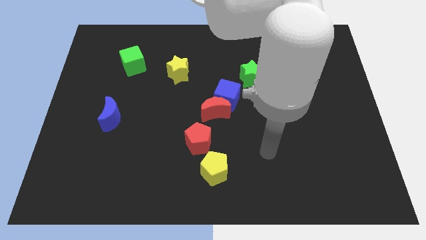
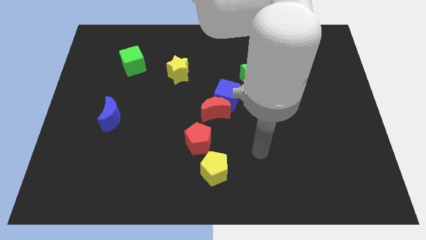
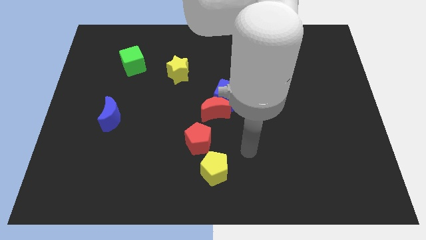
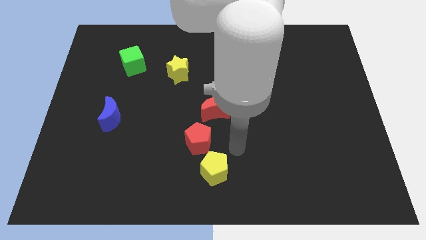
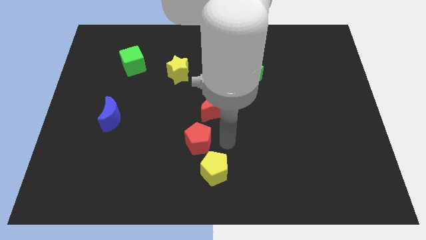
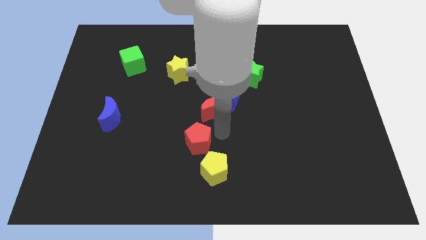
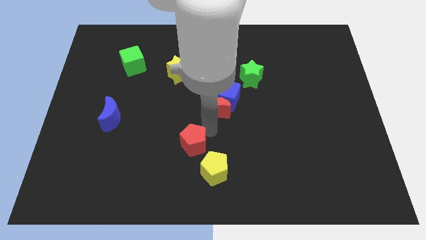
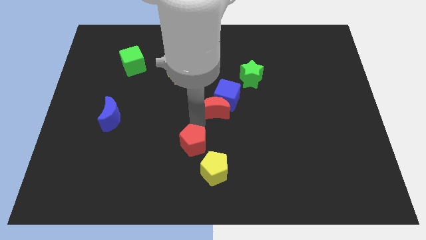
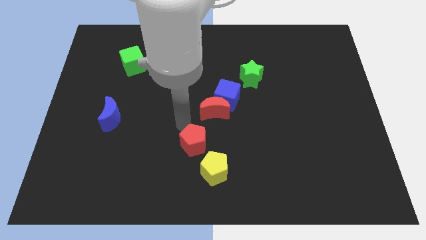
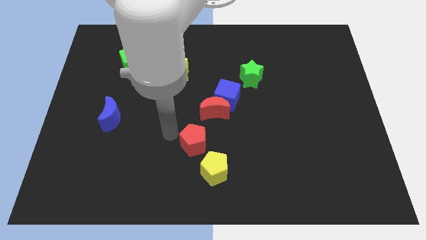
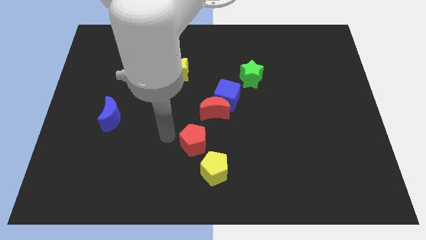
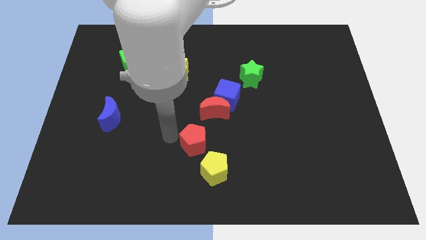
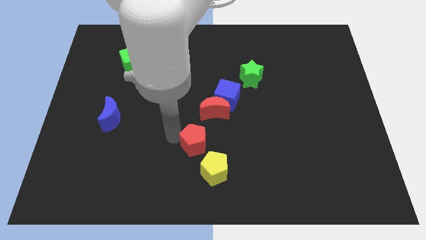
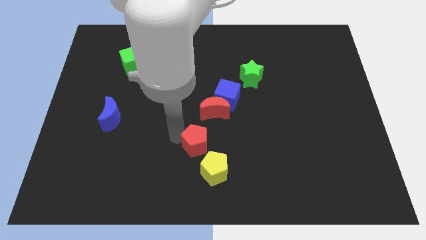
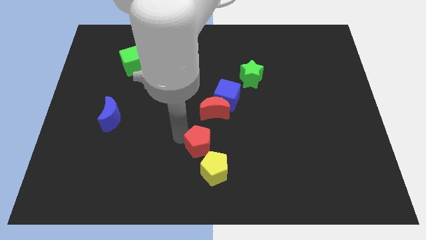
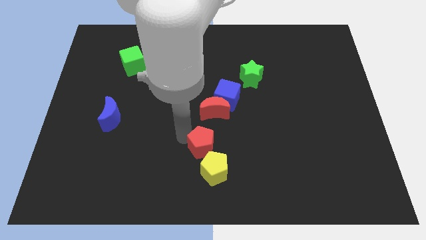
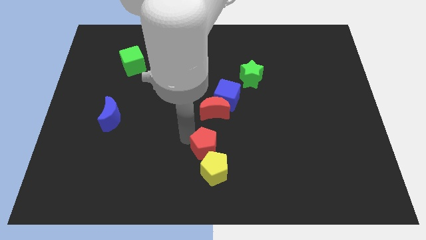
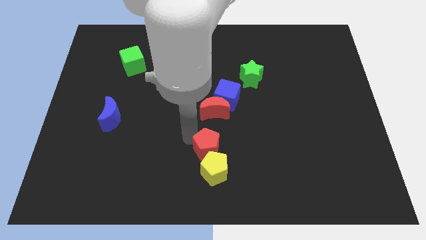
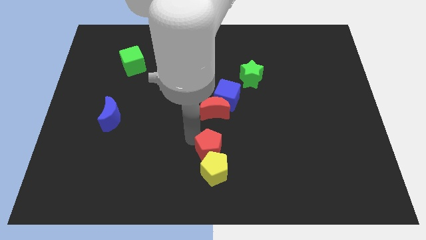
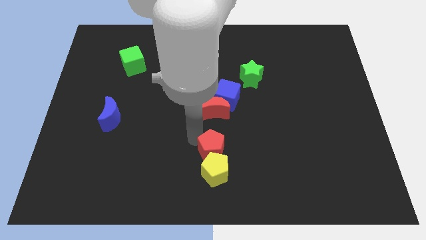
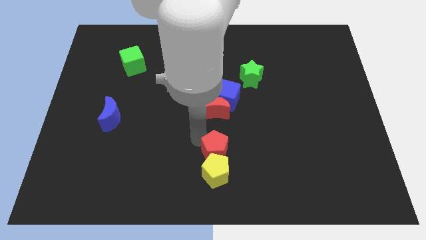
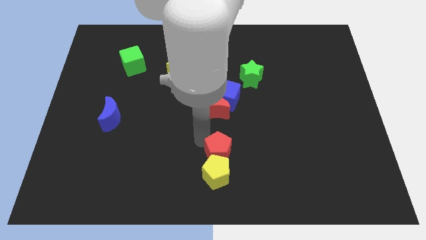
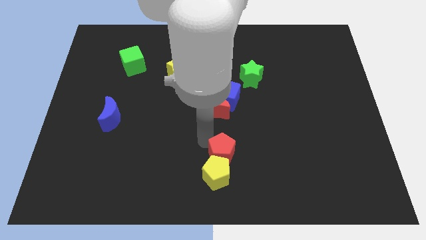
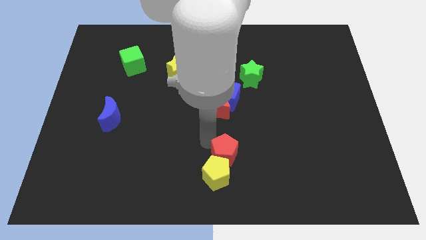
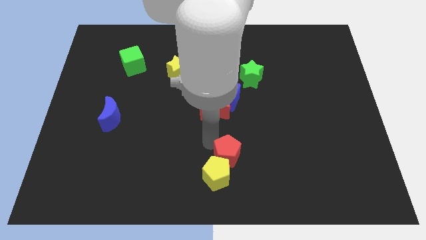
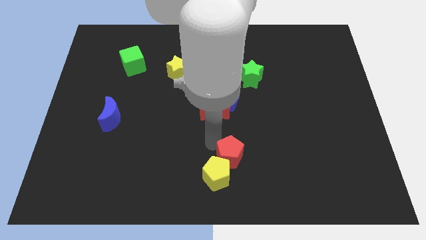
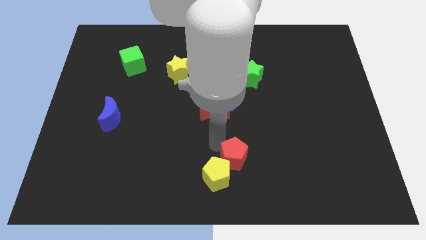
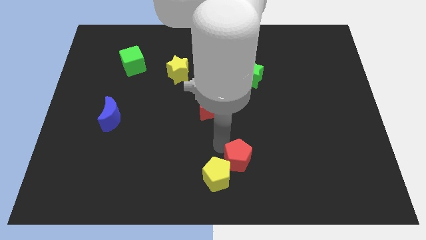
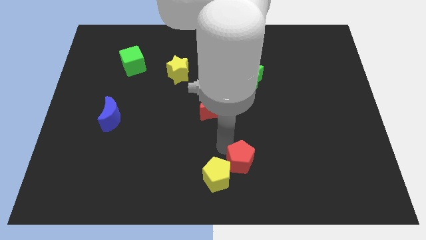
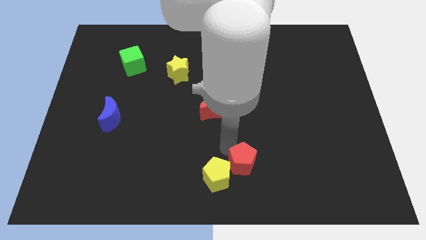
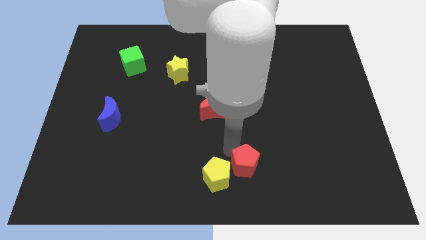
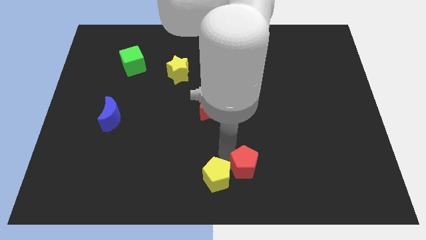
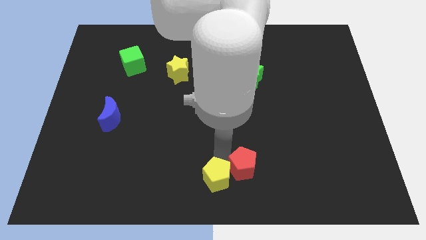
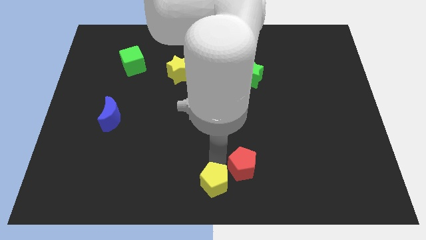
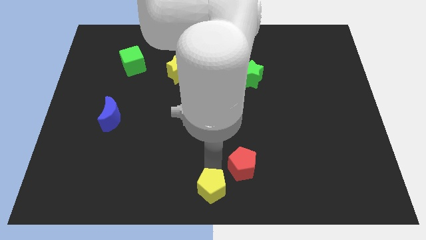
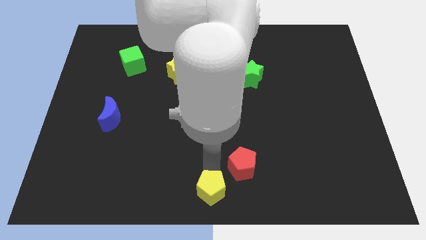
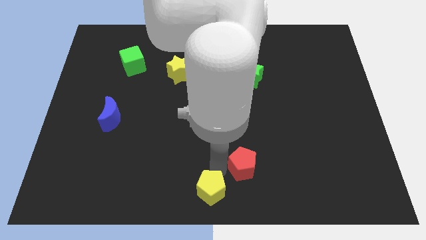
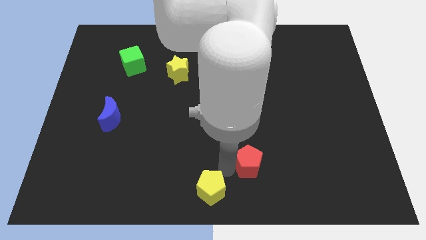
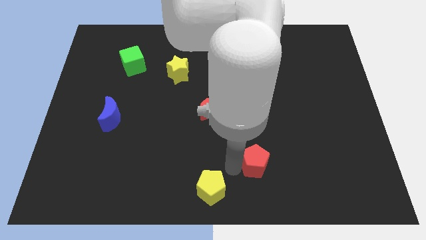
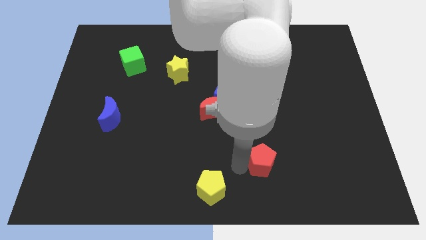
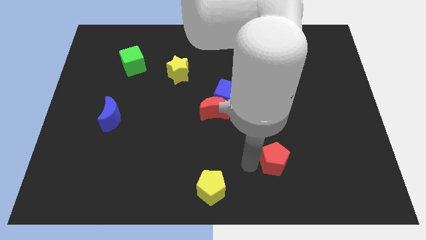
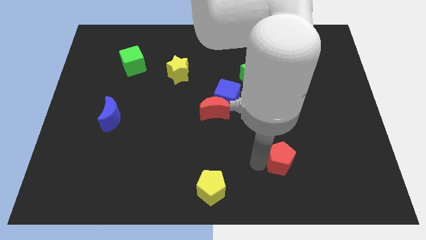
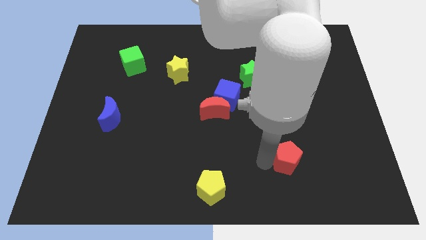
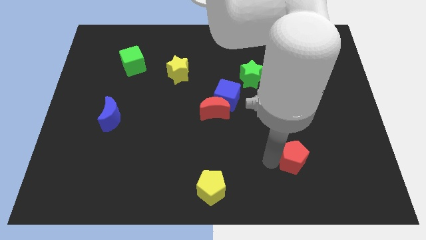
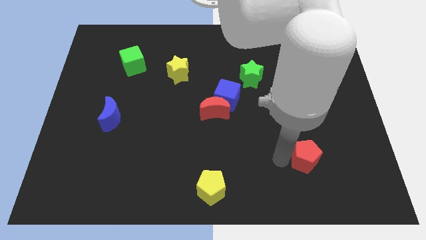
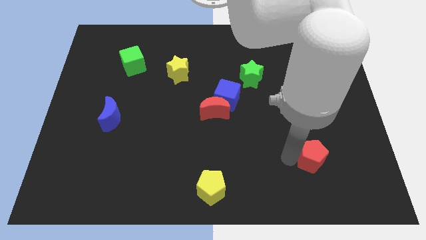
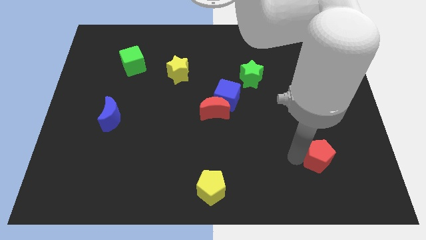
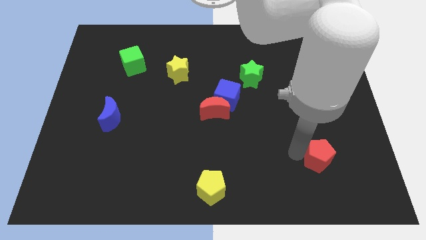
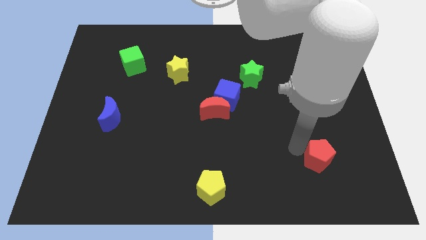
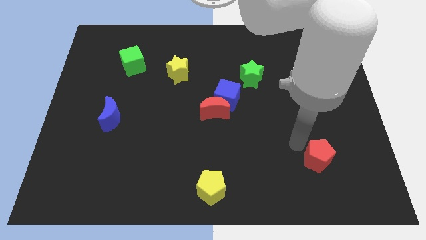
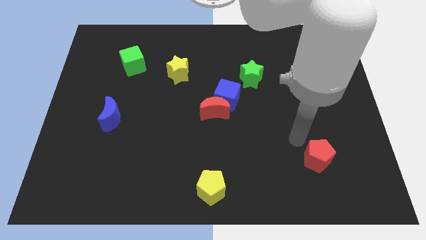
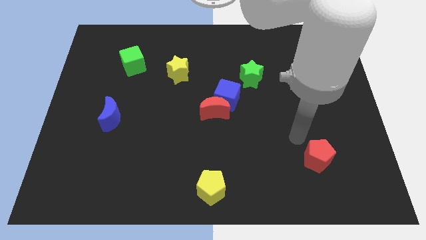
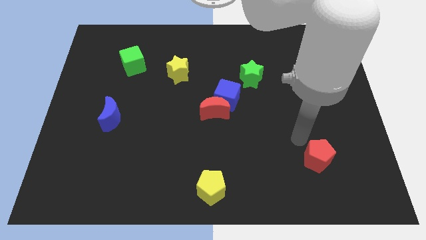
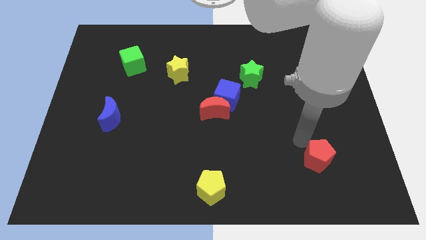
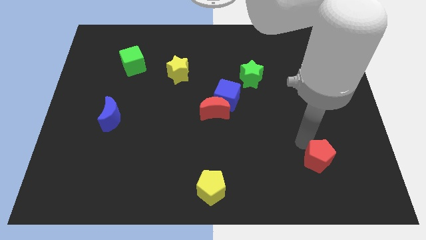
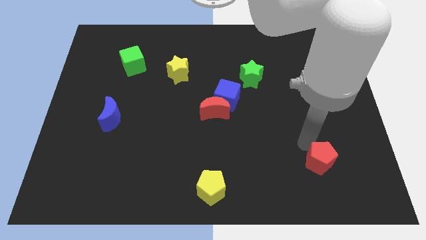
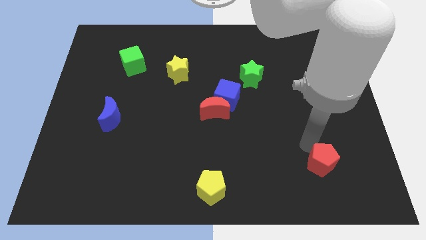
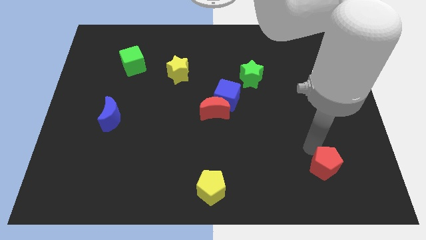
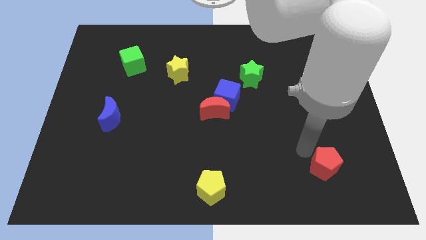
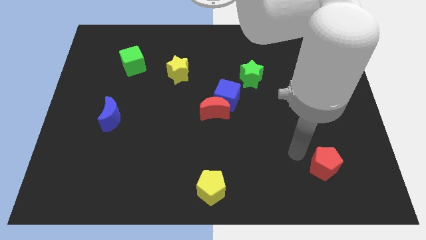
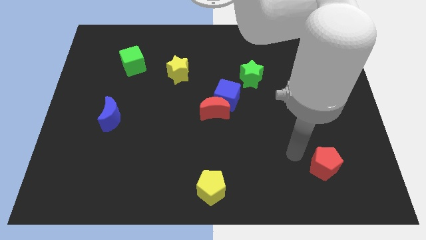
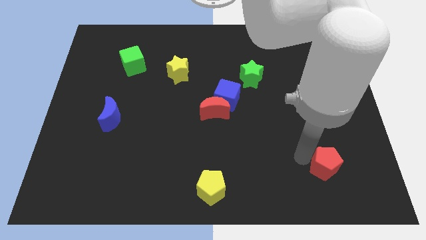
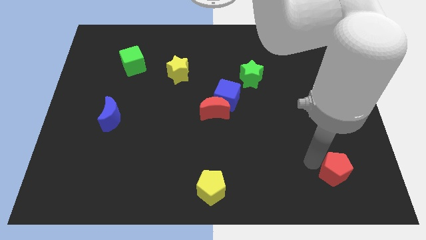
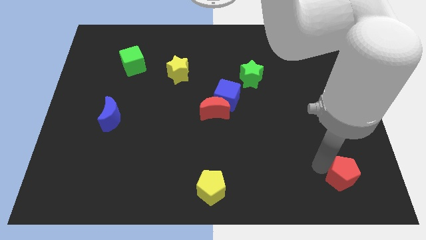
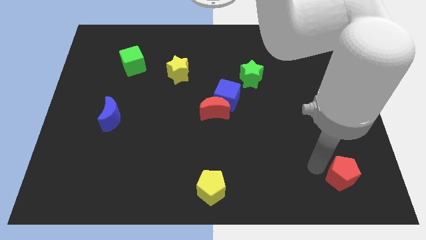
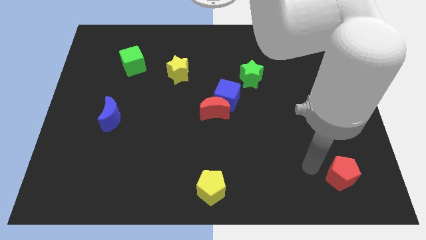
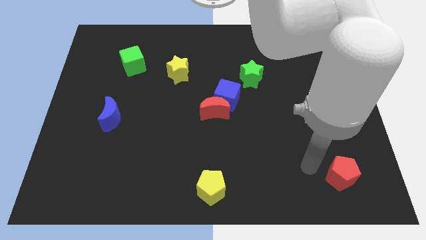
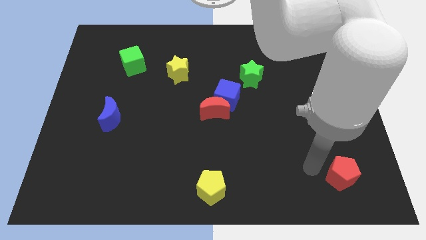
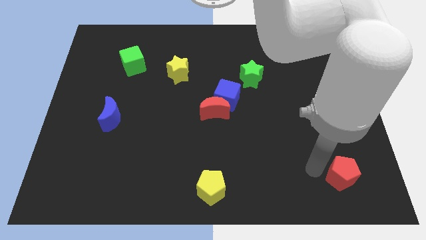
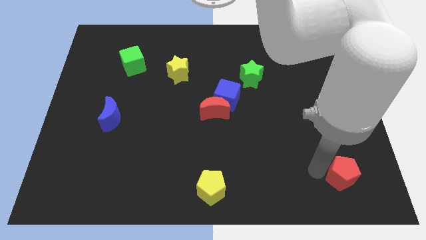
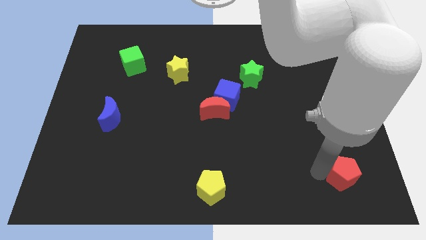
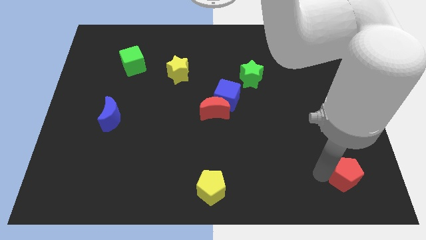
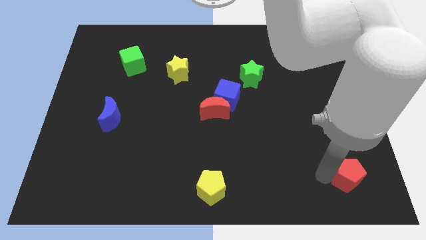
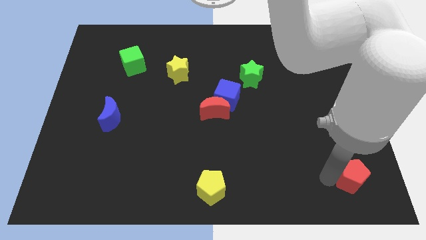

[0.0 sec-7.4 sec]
move the red pentagon to the lower right corner
